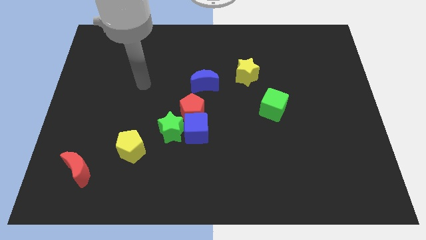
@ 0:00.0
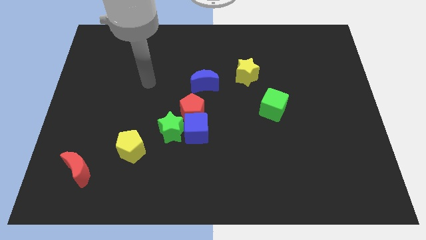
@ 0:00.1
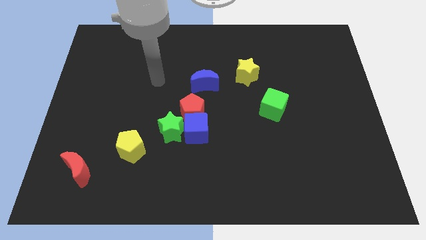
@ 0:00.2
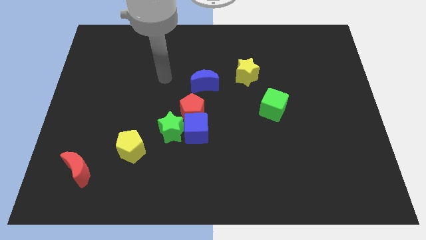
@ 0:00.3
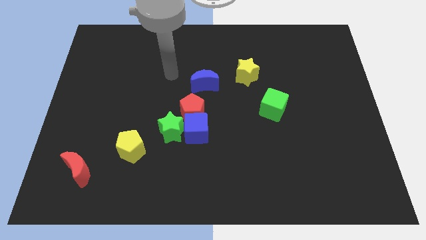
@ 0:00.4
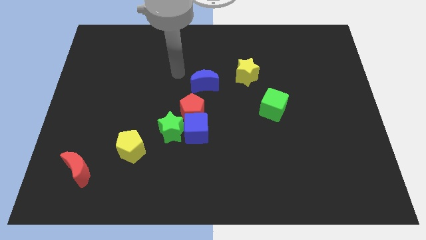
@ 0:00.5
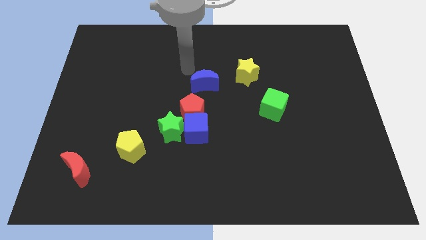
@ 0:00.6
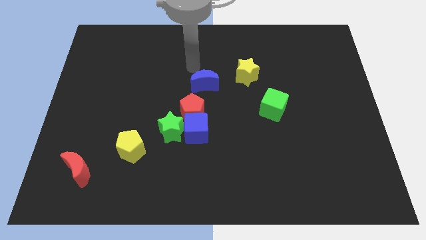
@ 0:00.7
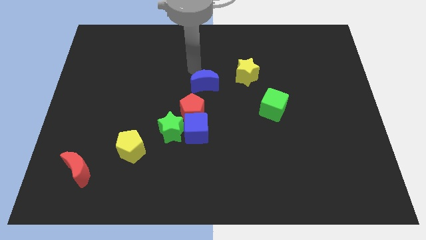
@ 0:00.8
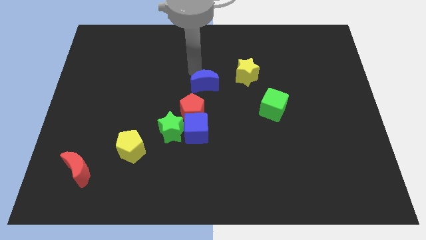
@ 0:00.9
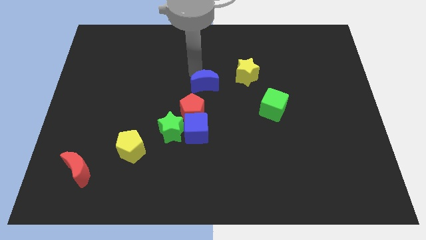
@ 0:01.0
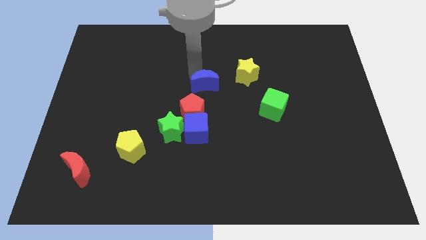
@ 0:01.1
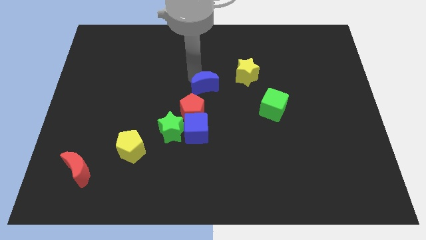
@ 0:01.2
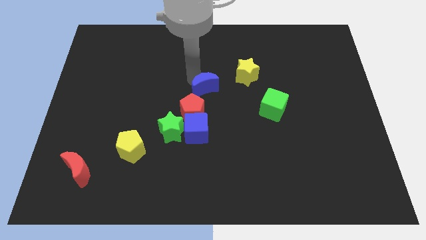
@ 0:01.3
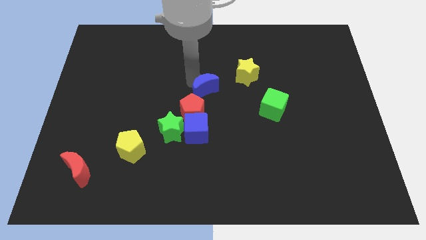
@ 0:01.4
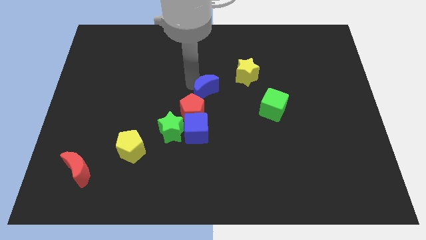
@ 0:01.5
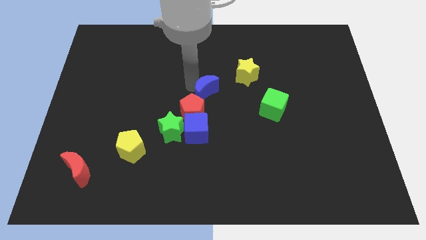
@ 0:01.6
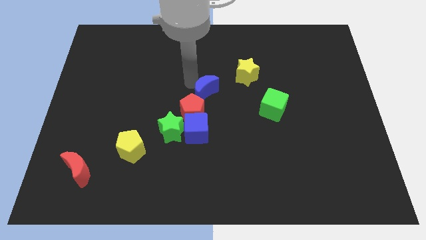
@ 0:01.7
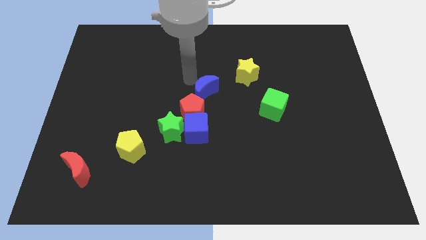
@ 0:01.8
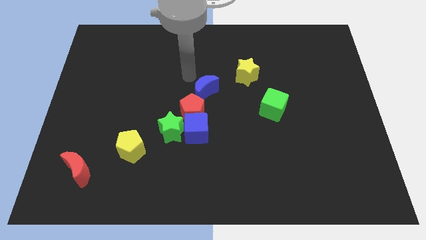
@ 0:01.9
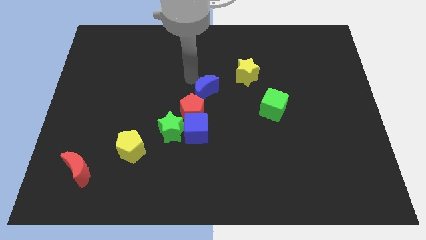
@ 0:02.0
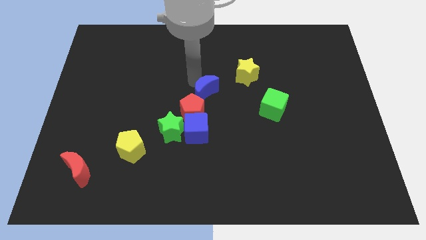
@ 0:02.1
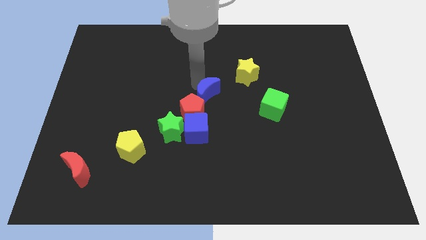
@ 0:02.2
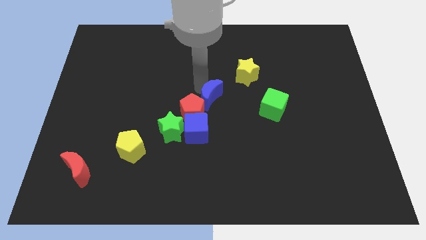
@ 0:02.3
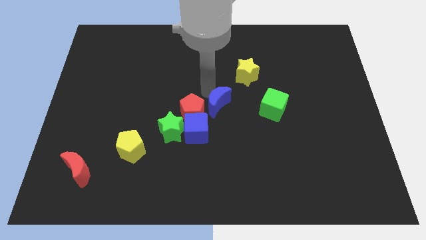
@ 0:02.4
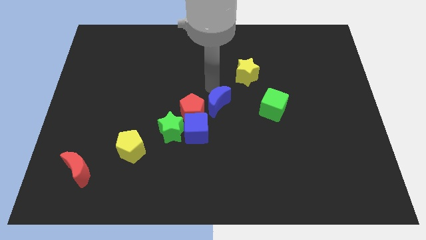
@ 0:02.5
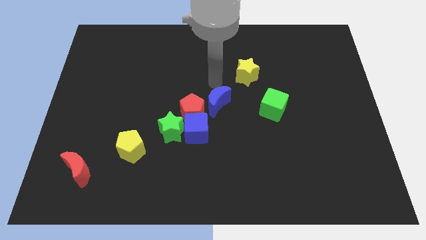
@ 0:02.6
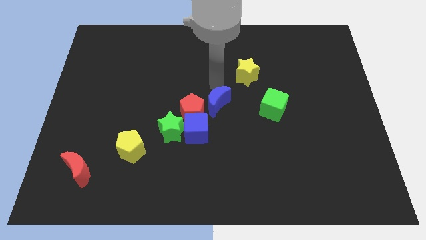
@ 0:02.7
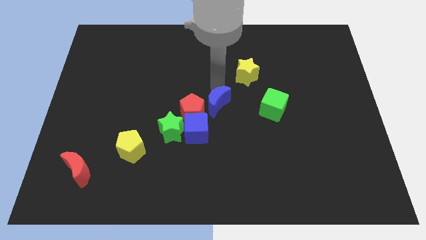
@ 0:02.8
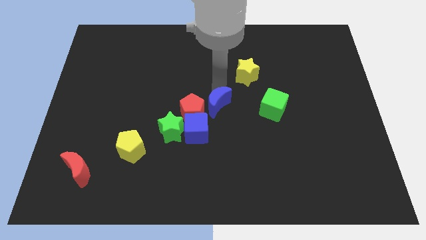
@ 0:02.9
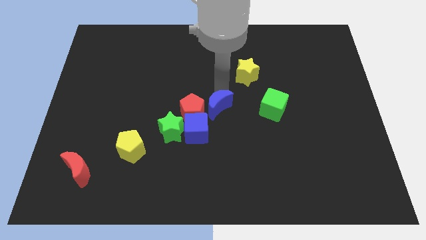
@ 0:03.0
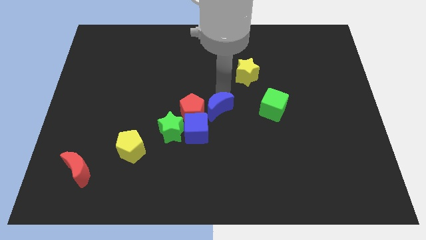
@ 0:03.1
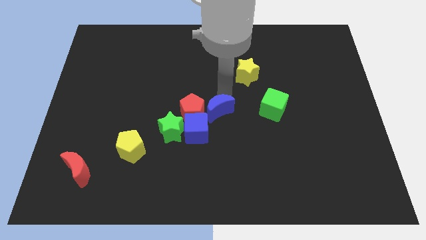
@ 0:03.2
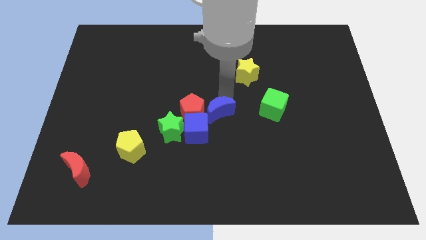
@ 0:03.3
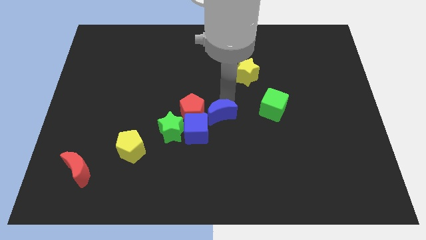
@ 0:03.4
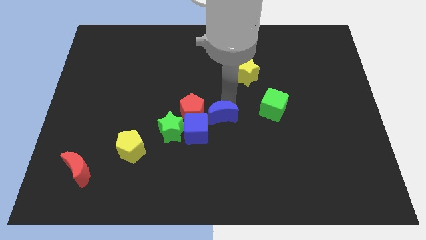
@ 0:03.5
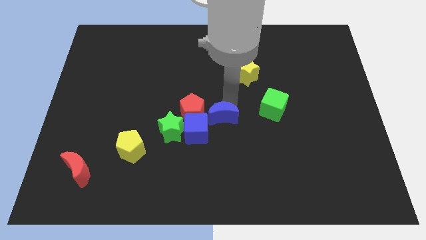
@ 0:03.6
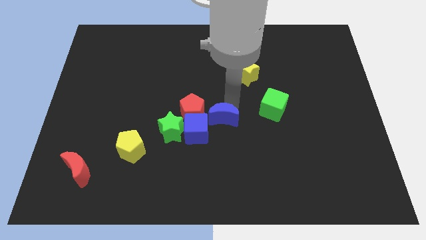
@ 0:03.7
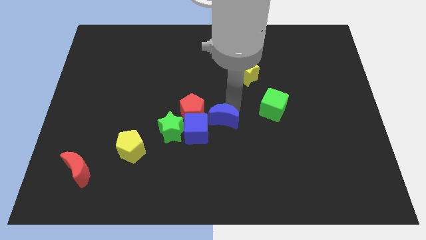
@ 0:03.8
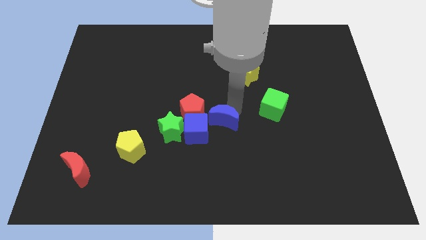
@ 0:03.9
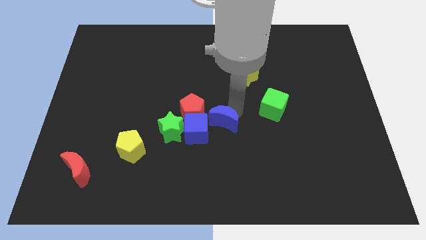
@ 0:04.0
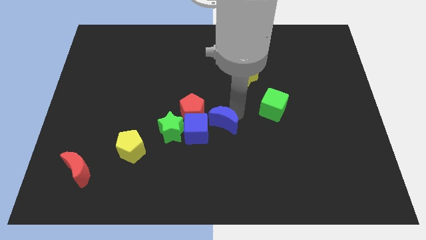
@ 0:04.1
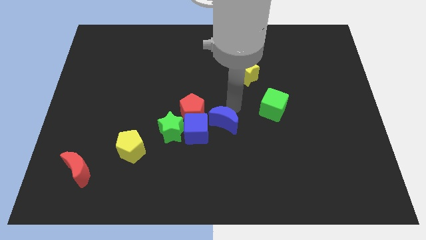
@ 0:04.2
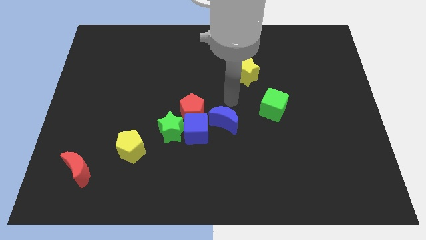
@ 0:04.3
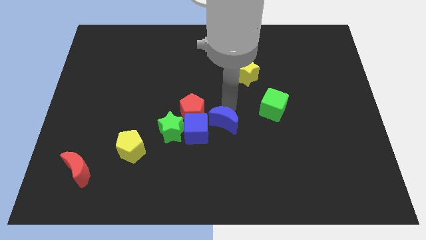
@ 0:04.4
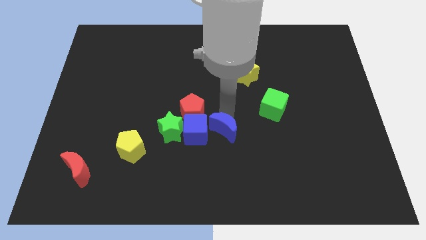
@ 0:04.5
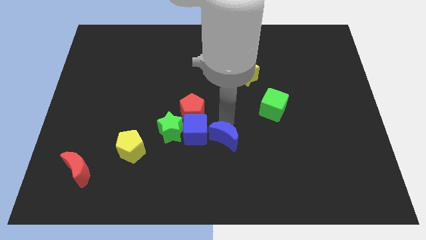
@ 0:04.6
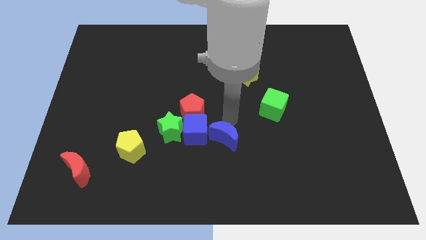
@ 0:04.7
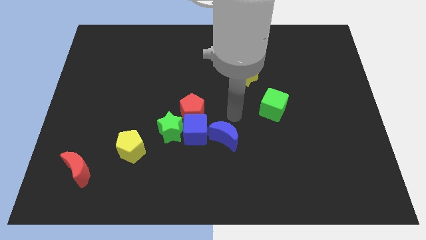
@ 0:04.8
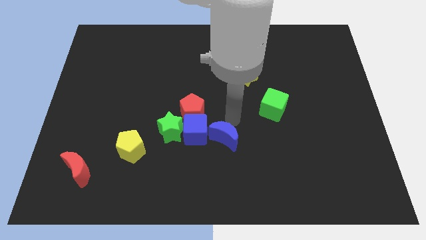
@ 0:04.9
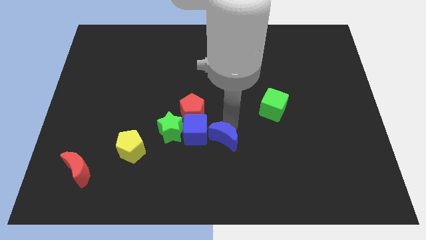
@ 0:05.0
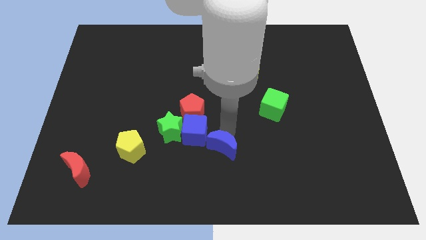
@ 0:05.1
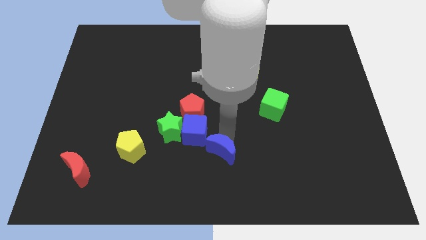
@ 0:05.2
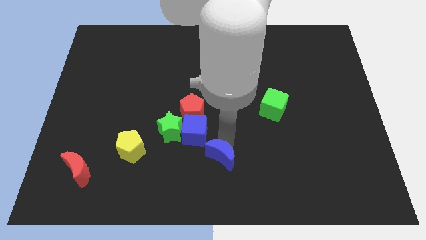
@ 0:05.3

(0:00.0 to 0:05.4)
slide the blue moon to the bottom

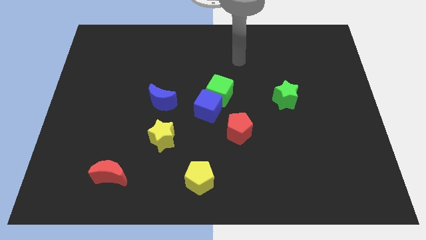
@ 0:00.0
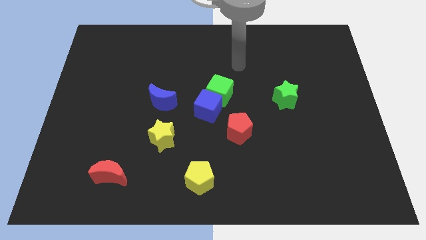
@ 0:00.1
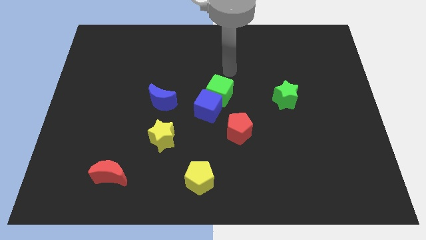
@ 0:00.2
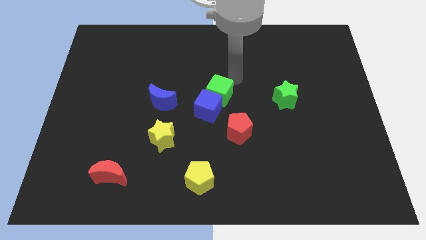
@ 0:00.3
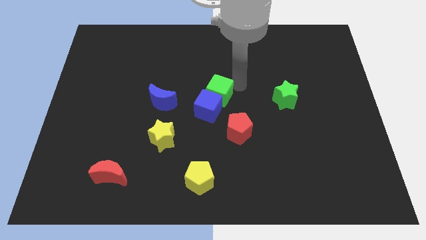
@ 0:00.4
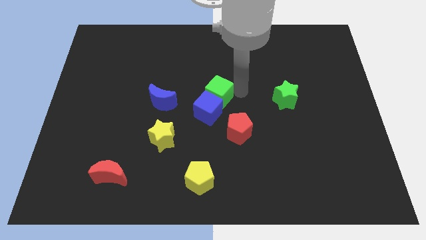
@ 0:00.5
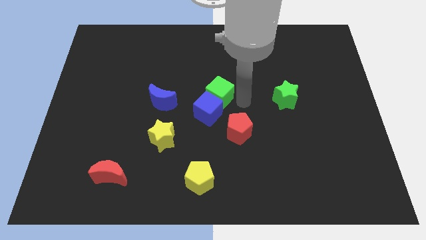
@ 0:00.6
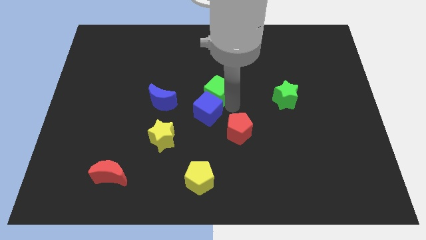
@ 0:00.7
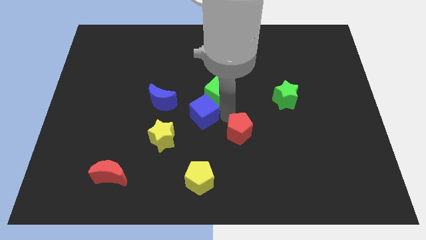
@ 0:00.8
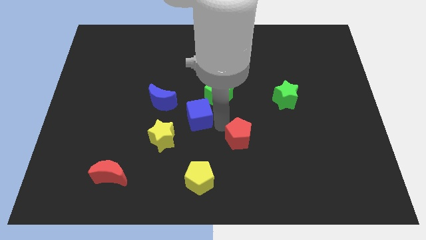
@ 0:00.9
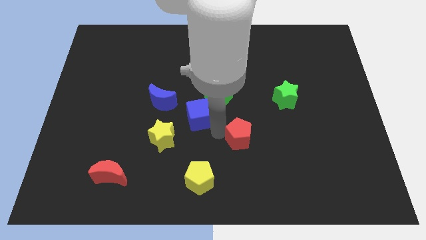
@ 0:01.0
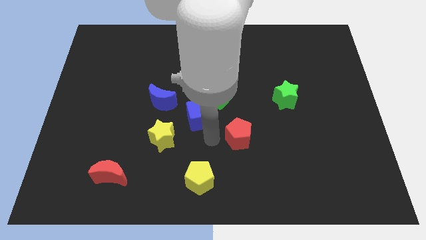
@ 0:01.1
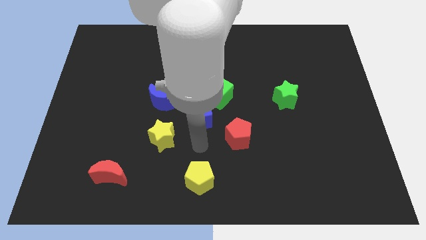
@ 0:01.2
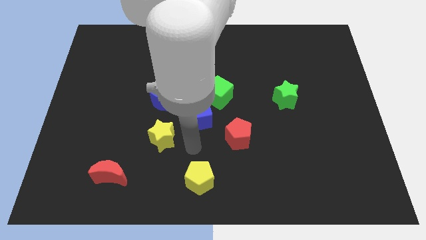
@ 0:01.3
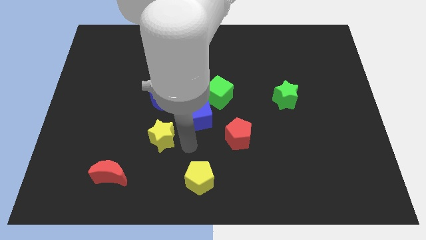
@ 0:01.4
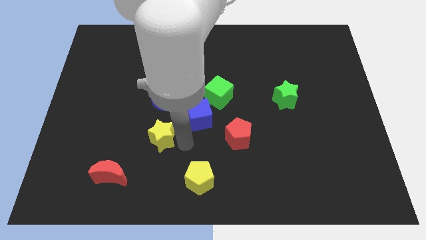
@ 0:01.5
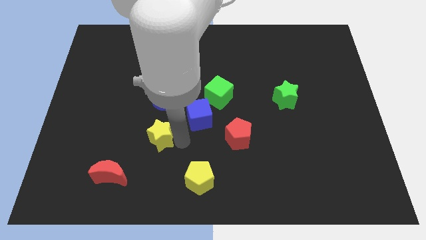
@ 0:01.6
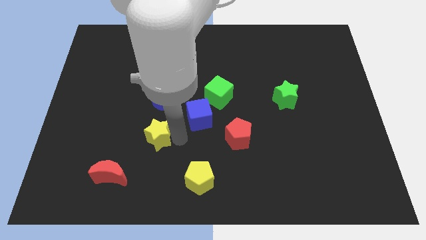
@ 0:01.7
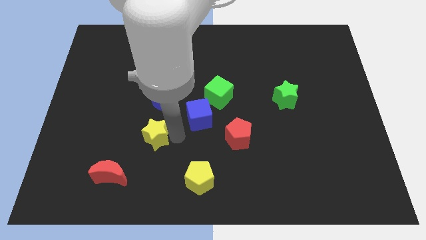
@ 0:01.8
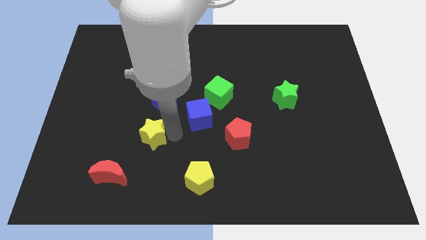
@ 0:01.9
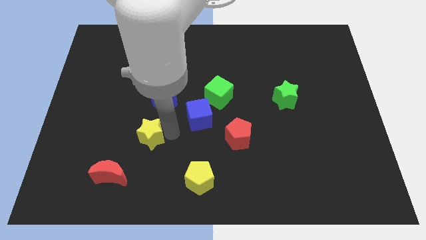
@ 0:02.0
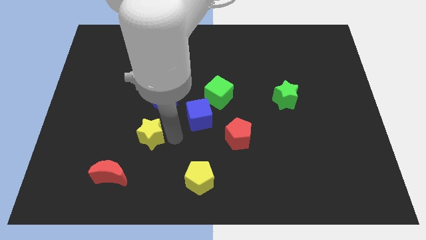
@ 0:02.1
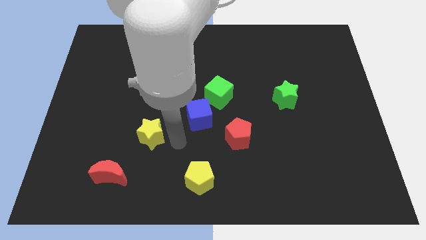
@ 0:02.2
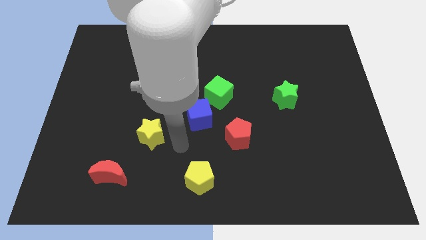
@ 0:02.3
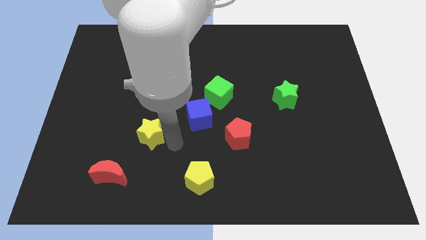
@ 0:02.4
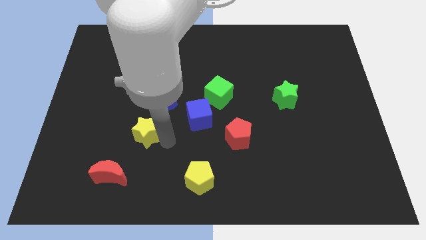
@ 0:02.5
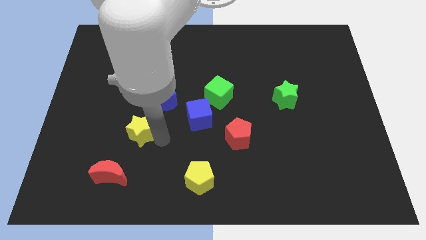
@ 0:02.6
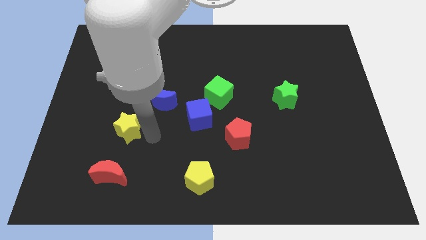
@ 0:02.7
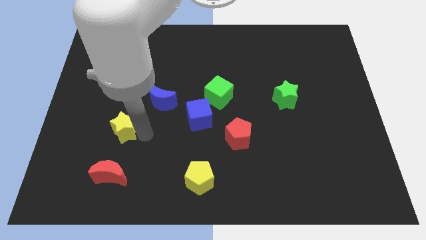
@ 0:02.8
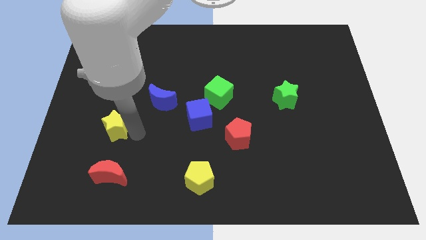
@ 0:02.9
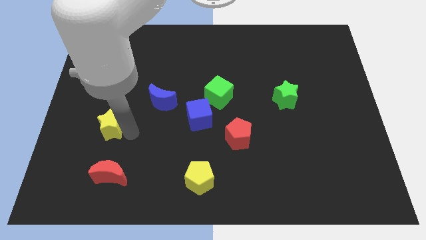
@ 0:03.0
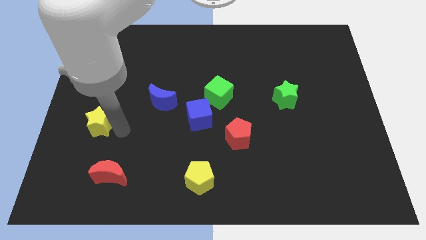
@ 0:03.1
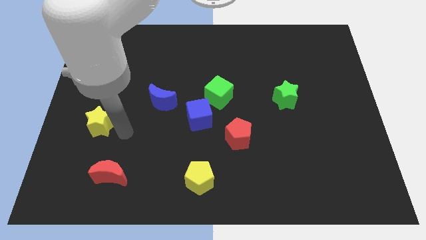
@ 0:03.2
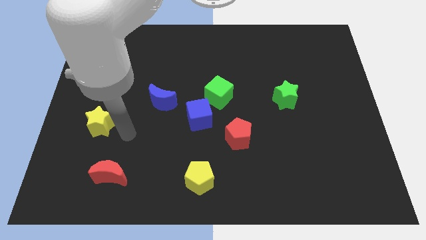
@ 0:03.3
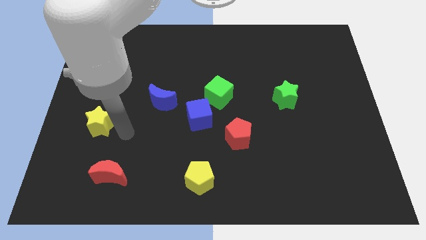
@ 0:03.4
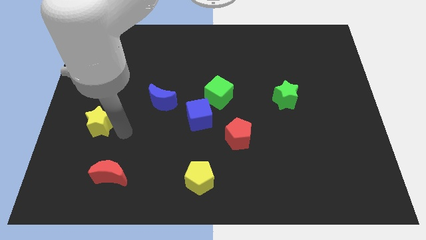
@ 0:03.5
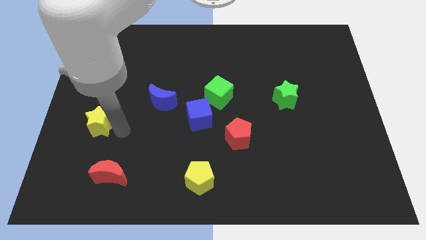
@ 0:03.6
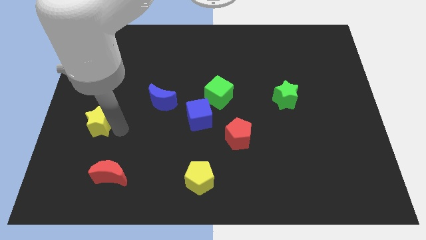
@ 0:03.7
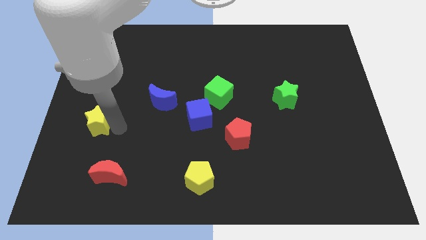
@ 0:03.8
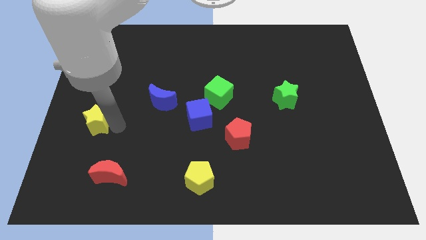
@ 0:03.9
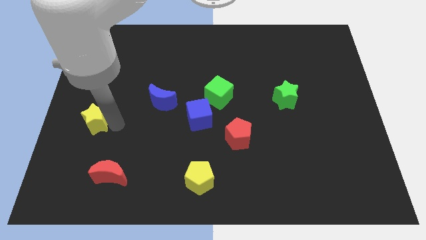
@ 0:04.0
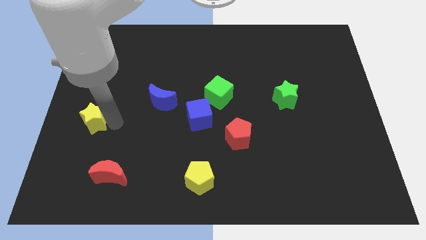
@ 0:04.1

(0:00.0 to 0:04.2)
slide the yellow star to the center left
